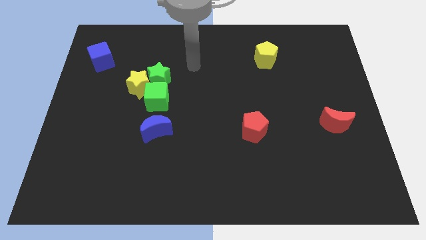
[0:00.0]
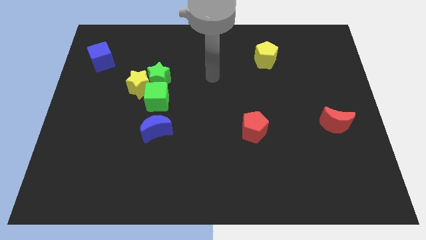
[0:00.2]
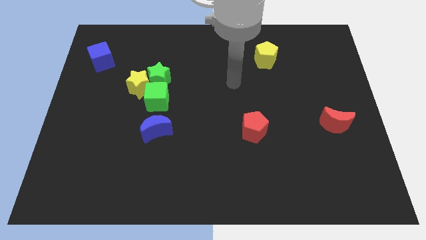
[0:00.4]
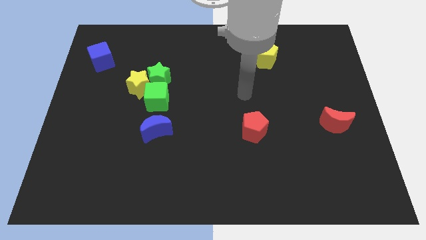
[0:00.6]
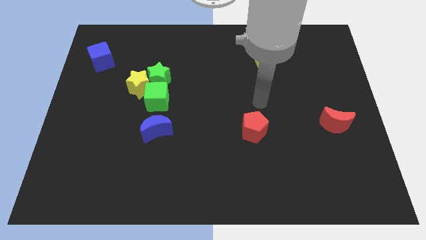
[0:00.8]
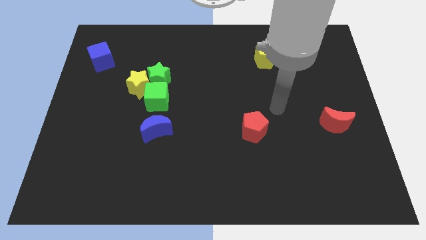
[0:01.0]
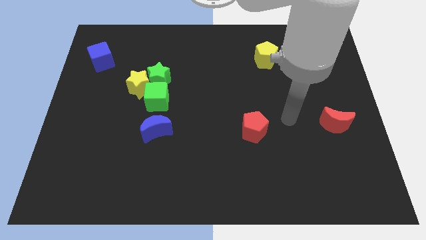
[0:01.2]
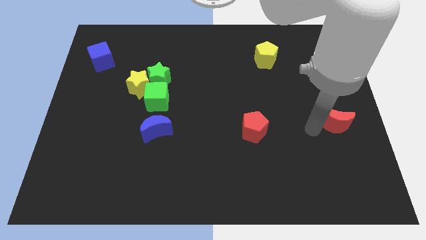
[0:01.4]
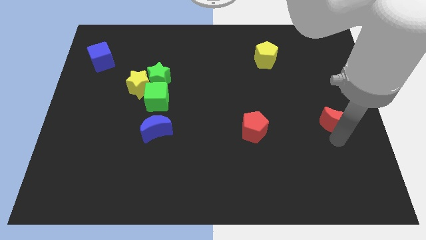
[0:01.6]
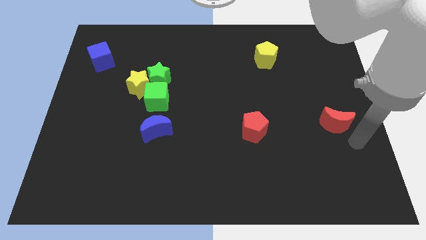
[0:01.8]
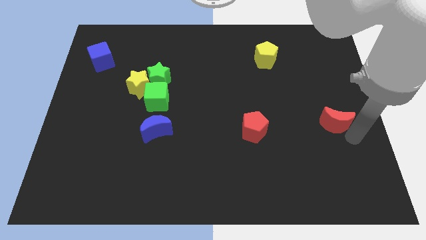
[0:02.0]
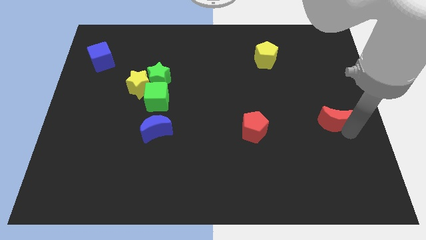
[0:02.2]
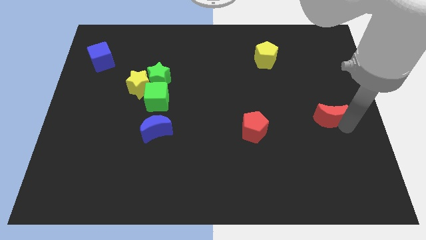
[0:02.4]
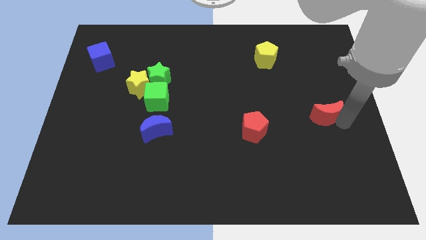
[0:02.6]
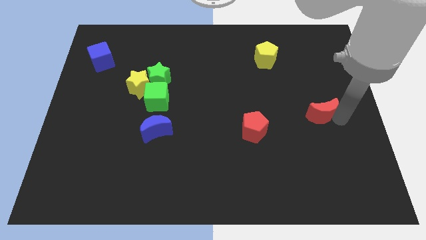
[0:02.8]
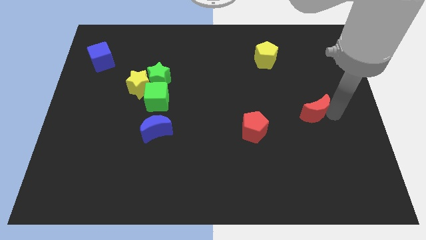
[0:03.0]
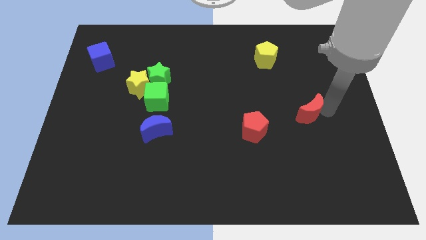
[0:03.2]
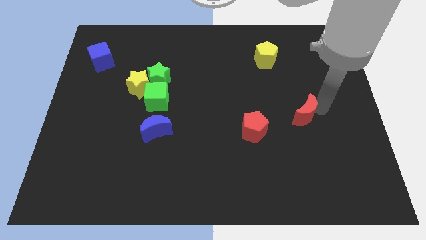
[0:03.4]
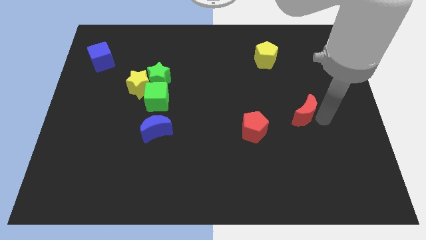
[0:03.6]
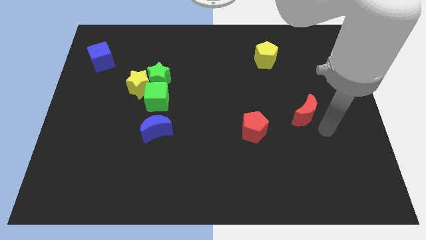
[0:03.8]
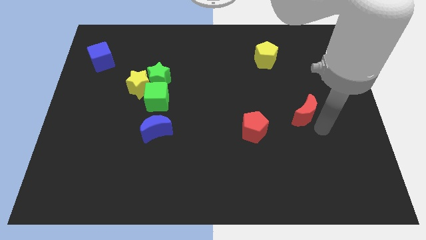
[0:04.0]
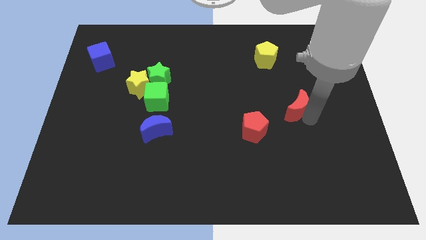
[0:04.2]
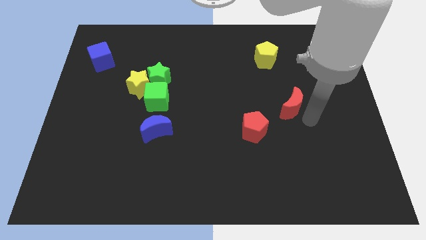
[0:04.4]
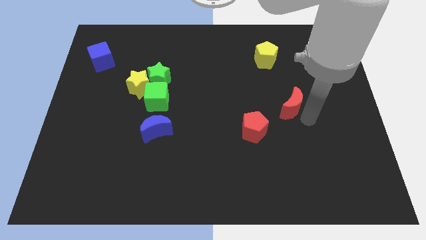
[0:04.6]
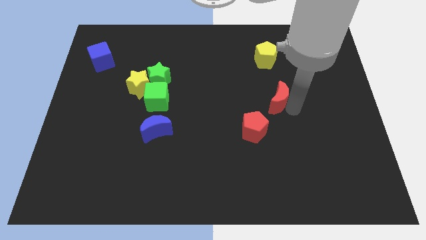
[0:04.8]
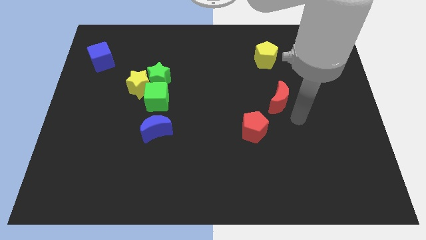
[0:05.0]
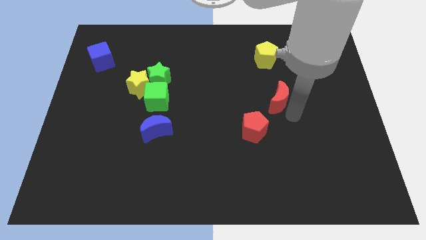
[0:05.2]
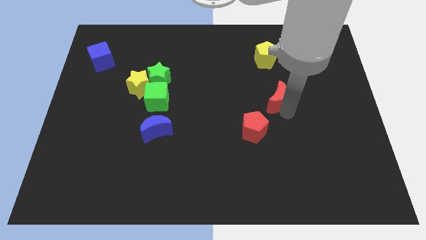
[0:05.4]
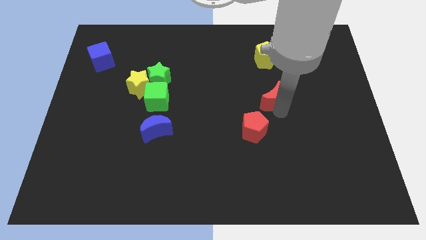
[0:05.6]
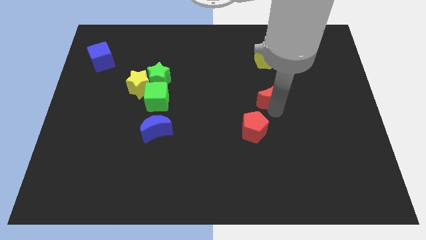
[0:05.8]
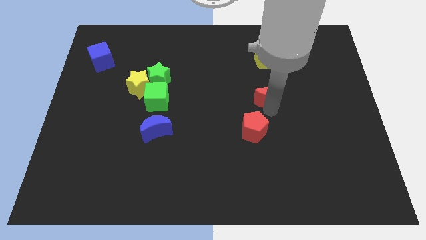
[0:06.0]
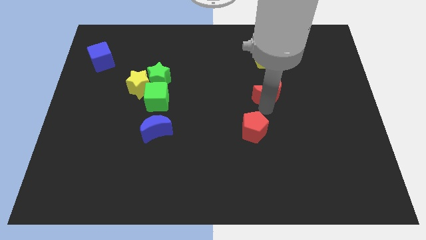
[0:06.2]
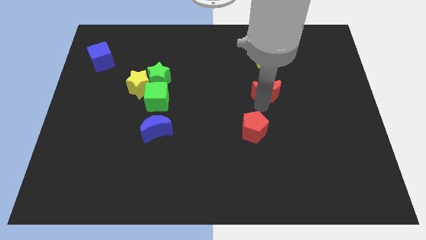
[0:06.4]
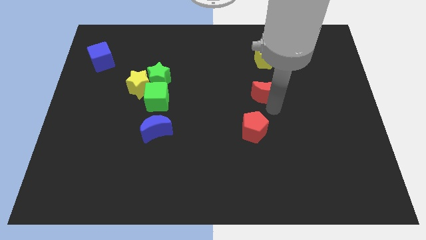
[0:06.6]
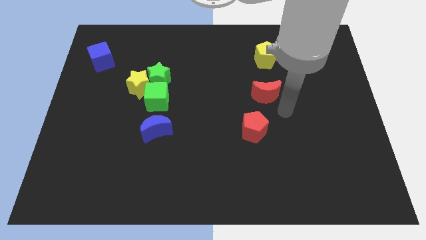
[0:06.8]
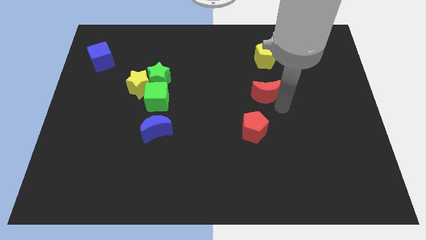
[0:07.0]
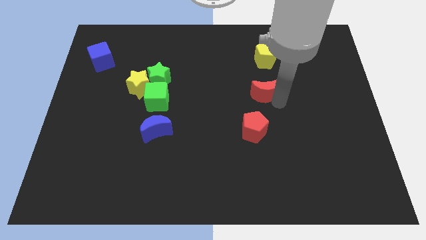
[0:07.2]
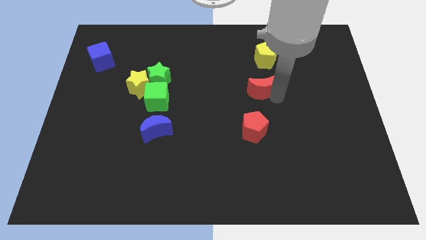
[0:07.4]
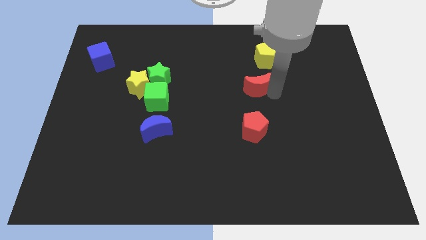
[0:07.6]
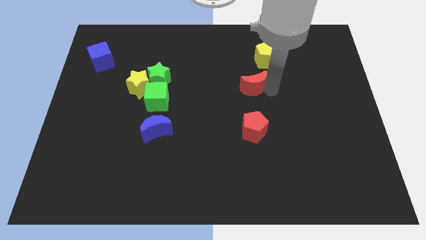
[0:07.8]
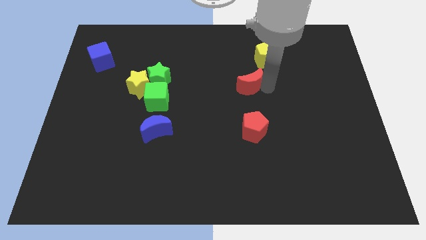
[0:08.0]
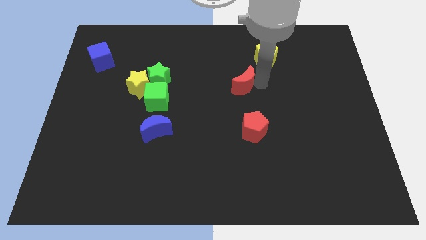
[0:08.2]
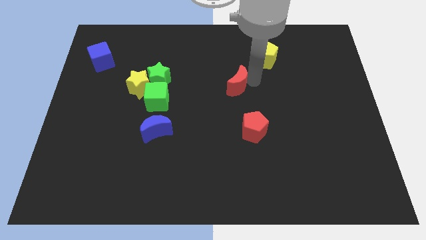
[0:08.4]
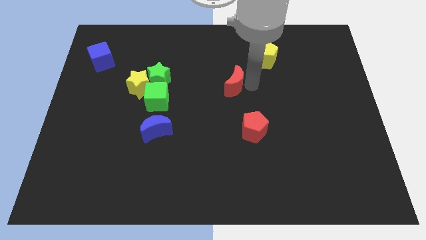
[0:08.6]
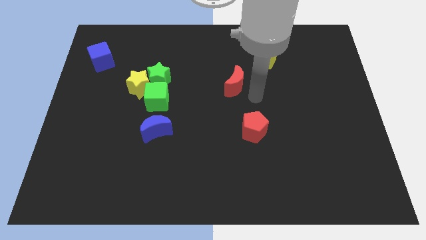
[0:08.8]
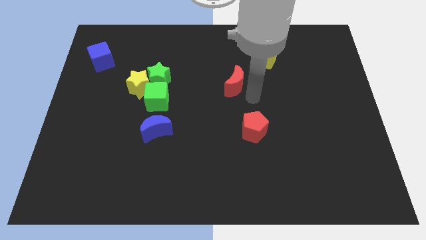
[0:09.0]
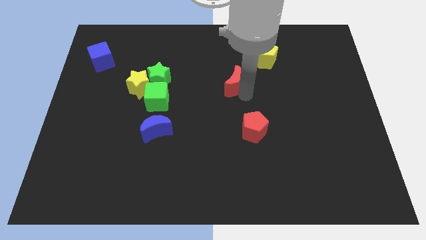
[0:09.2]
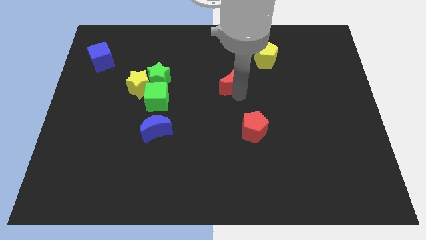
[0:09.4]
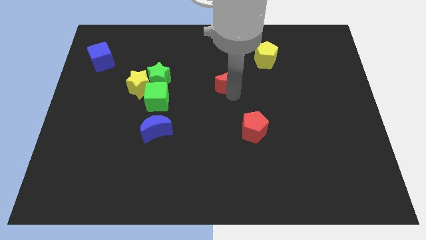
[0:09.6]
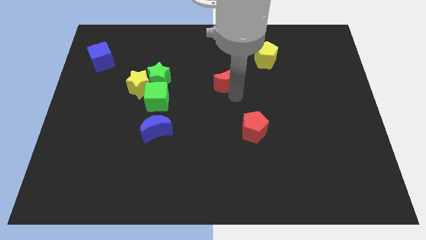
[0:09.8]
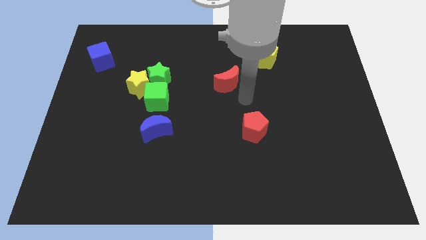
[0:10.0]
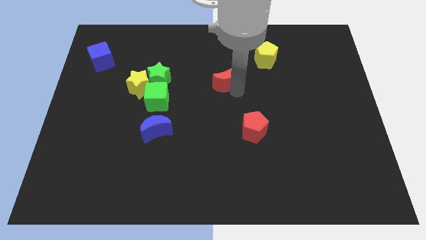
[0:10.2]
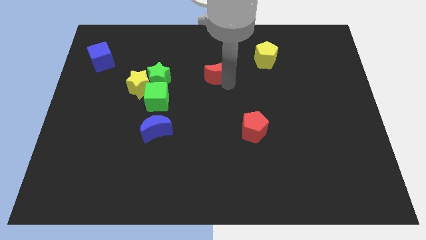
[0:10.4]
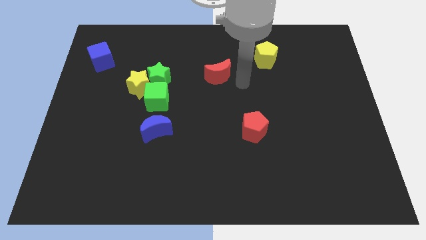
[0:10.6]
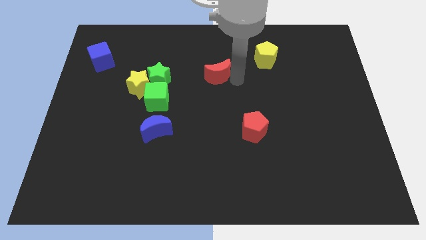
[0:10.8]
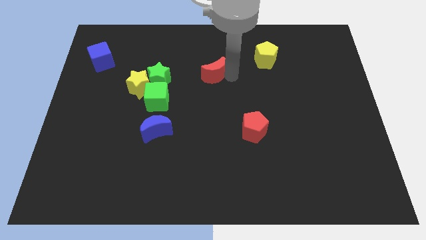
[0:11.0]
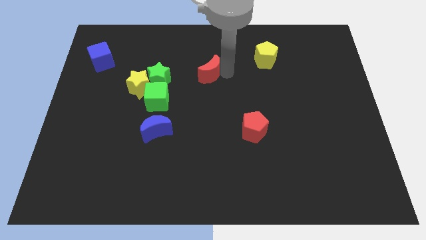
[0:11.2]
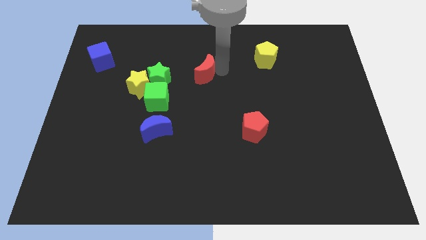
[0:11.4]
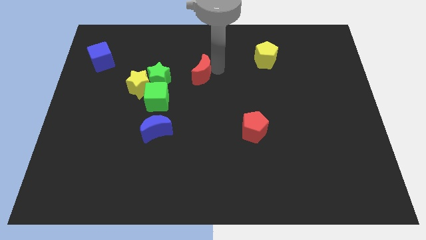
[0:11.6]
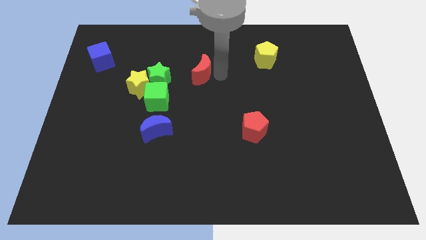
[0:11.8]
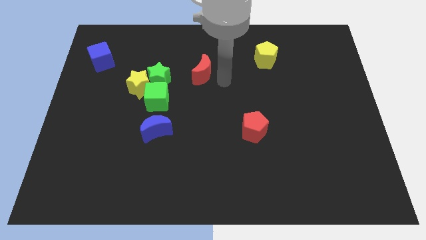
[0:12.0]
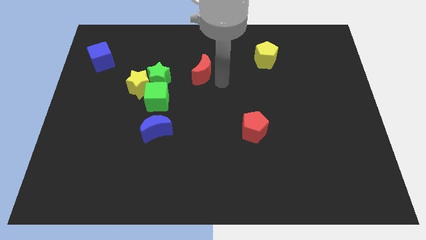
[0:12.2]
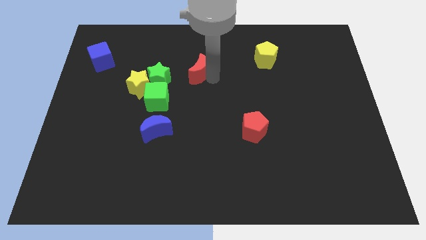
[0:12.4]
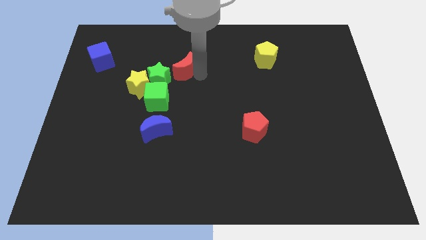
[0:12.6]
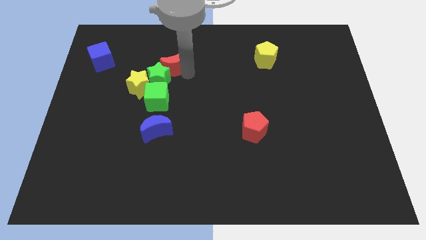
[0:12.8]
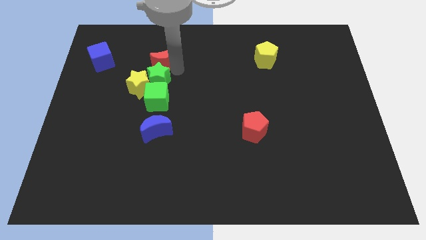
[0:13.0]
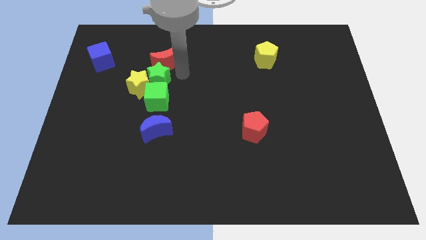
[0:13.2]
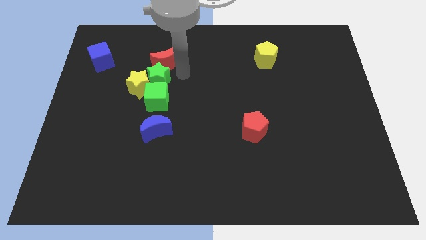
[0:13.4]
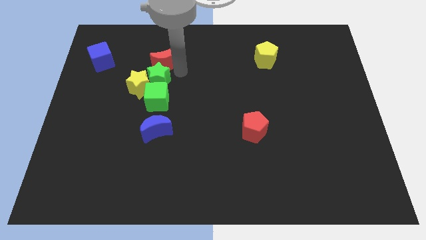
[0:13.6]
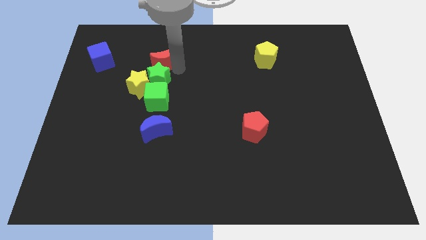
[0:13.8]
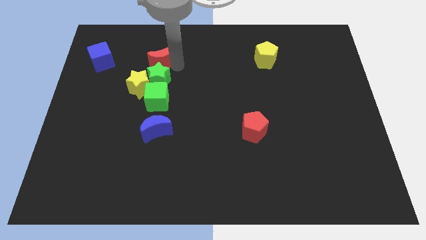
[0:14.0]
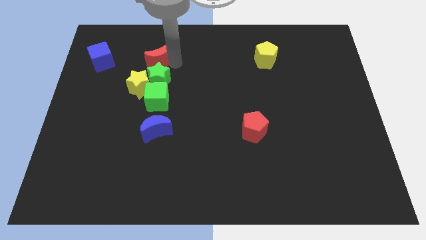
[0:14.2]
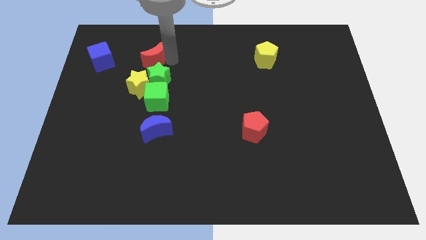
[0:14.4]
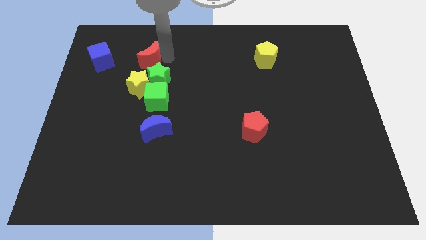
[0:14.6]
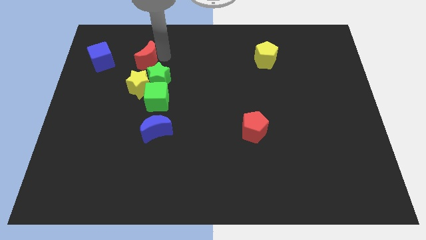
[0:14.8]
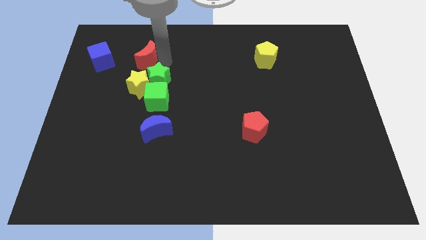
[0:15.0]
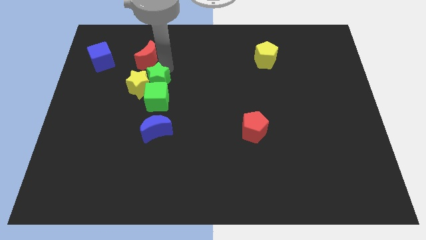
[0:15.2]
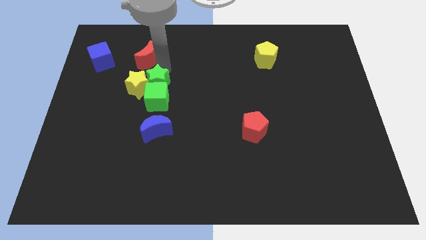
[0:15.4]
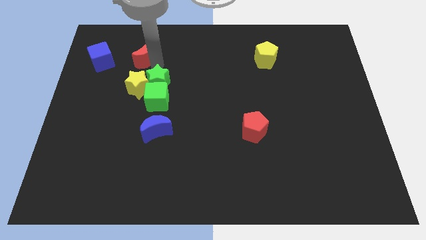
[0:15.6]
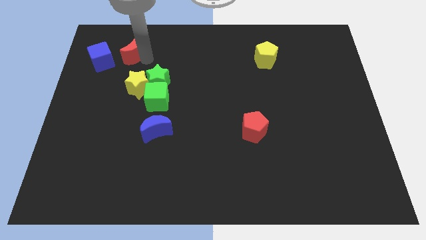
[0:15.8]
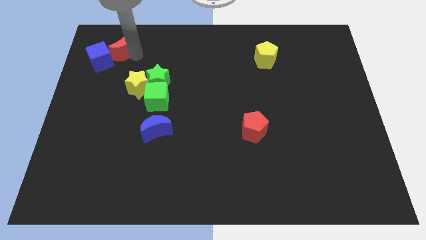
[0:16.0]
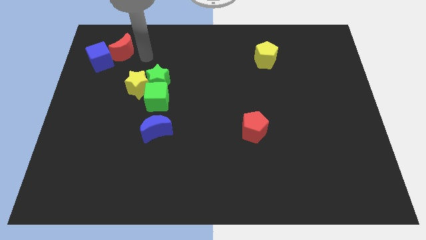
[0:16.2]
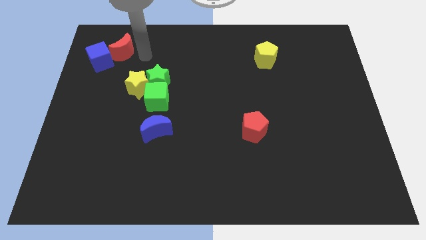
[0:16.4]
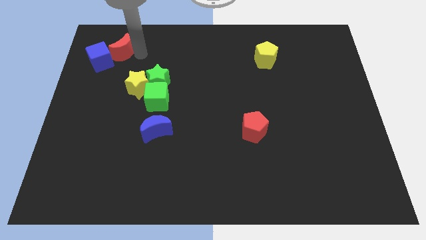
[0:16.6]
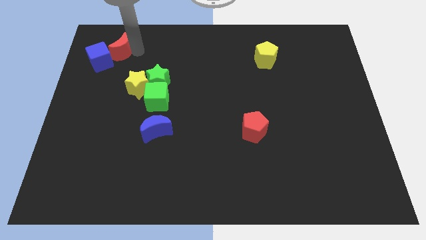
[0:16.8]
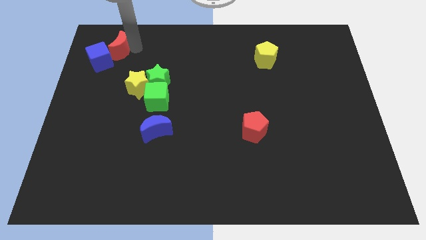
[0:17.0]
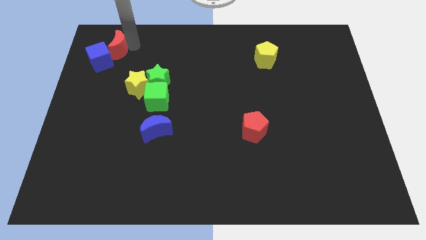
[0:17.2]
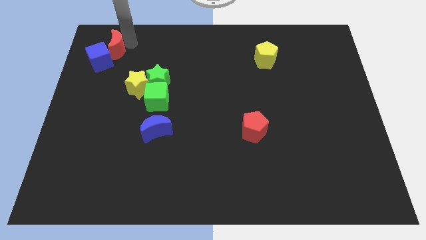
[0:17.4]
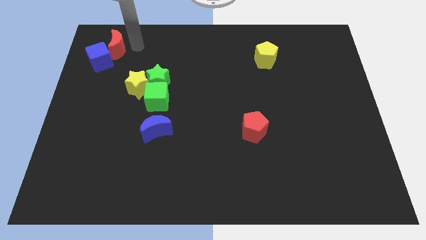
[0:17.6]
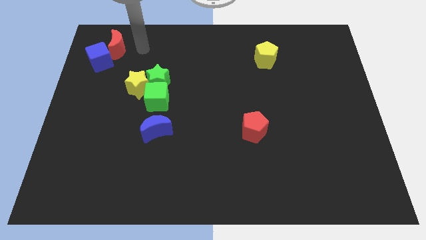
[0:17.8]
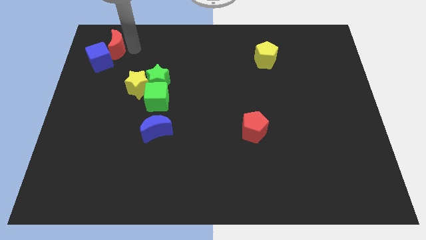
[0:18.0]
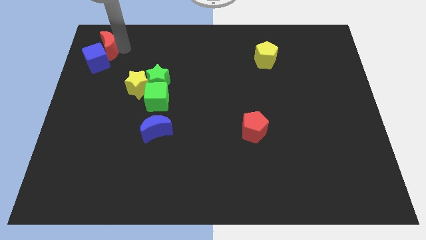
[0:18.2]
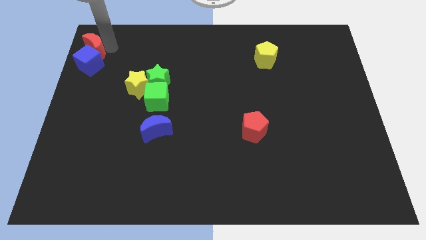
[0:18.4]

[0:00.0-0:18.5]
move the red moon to the top left corner
